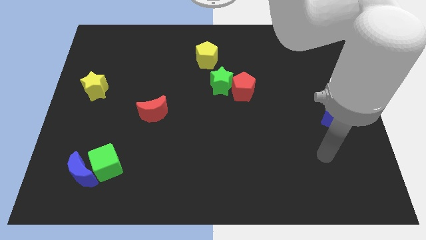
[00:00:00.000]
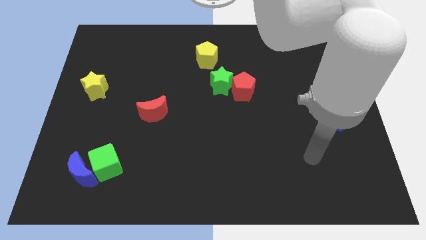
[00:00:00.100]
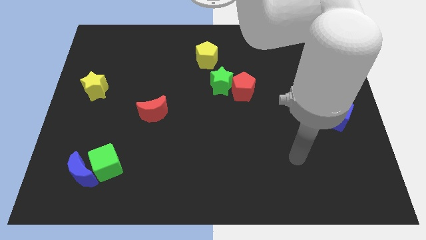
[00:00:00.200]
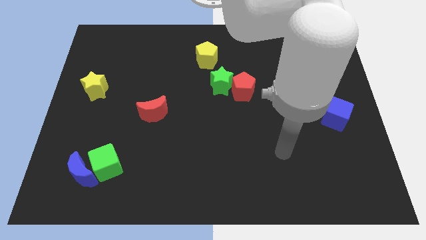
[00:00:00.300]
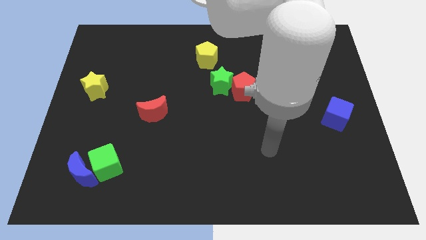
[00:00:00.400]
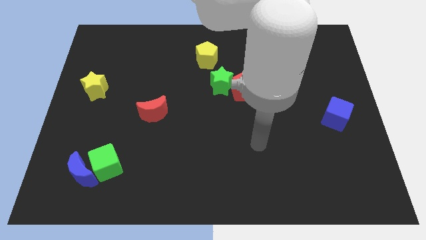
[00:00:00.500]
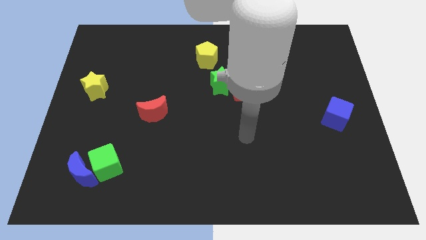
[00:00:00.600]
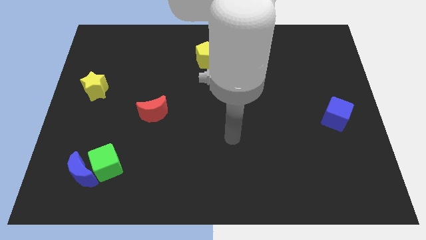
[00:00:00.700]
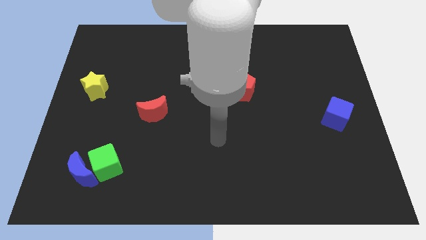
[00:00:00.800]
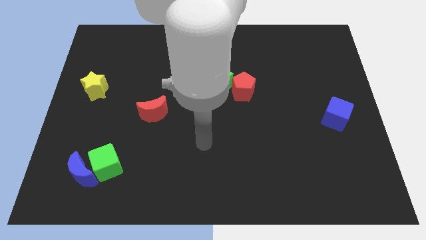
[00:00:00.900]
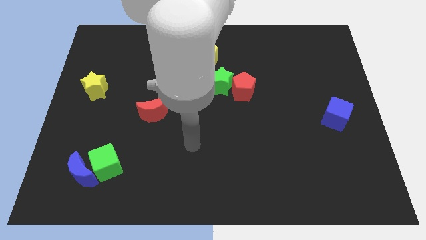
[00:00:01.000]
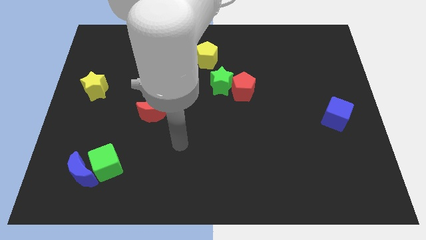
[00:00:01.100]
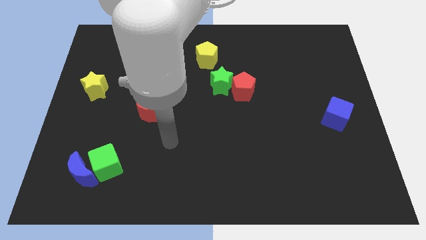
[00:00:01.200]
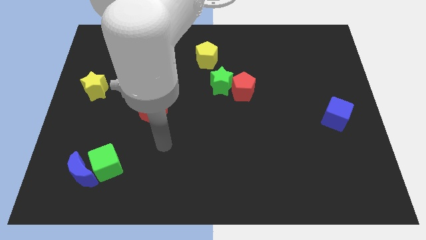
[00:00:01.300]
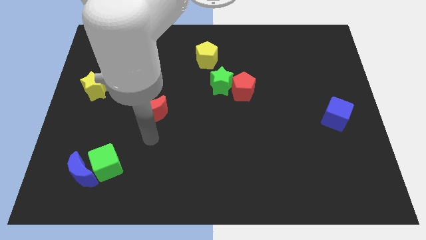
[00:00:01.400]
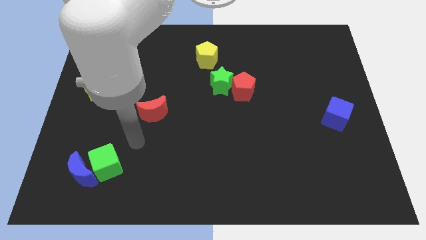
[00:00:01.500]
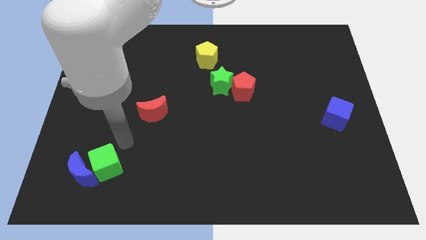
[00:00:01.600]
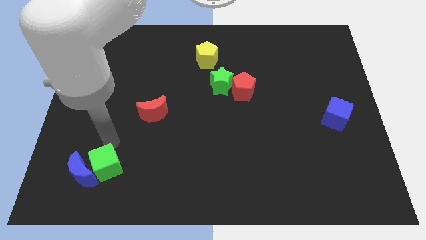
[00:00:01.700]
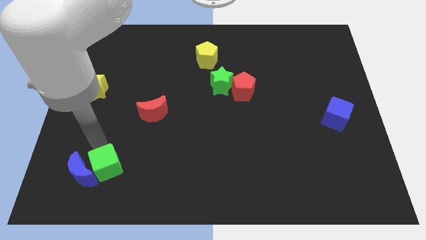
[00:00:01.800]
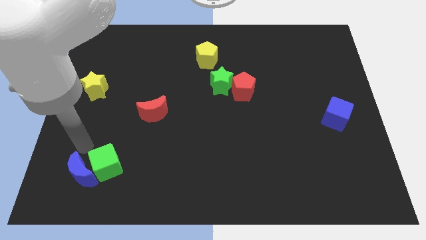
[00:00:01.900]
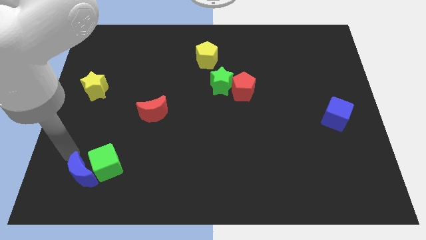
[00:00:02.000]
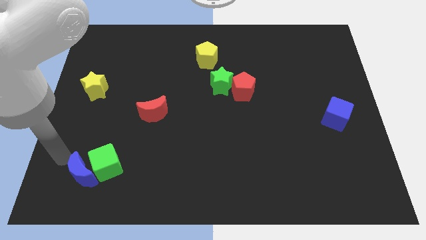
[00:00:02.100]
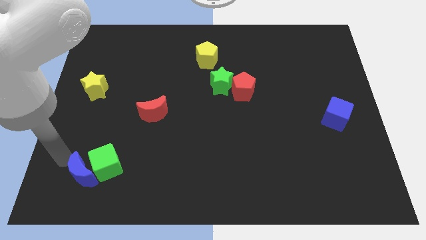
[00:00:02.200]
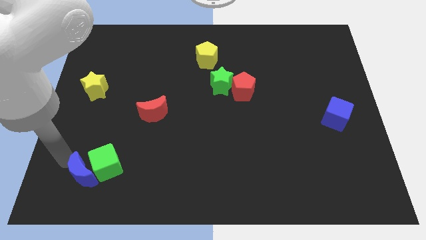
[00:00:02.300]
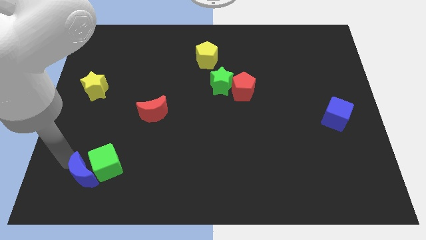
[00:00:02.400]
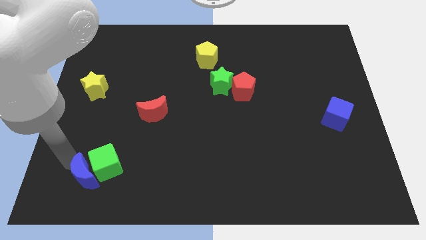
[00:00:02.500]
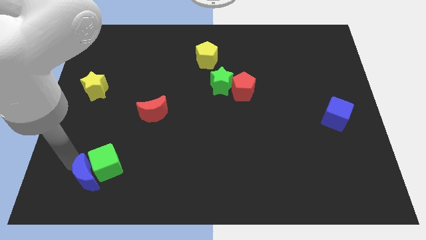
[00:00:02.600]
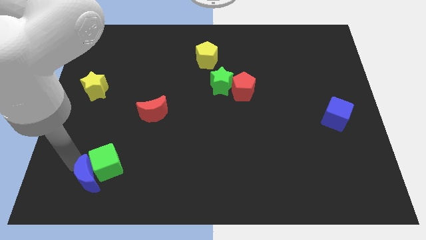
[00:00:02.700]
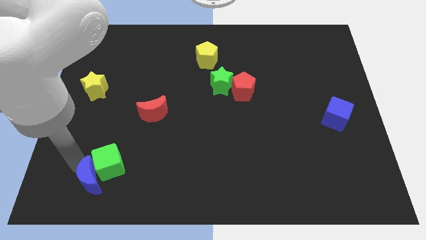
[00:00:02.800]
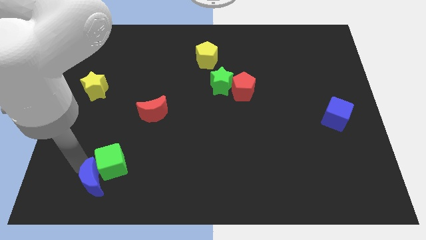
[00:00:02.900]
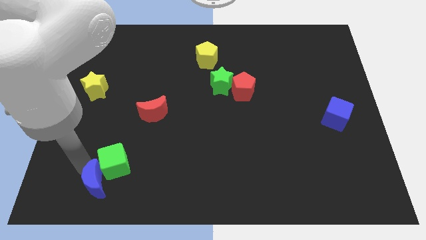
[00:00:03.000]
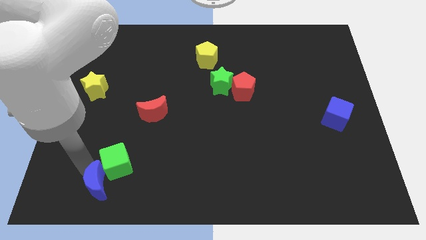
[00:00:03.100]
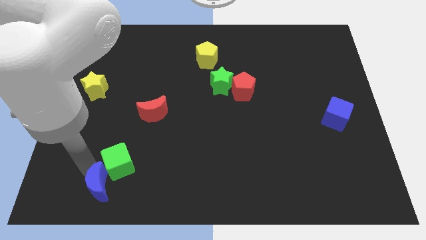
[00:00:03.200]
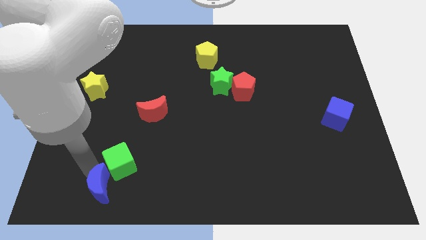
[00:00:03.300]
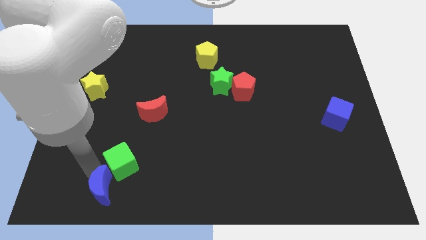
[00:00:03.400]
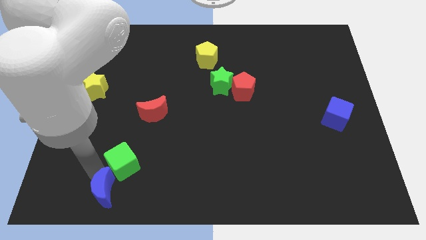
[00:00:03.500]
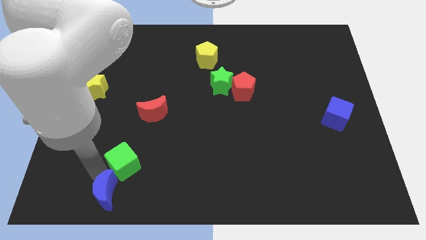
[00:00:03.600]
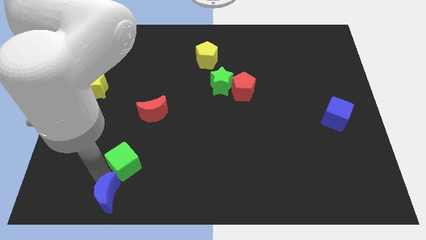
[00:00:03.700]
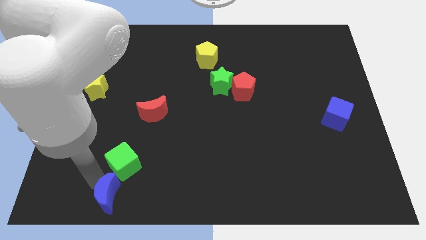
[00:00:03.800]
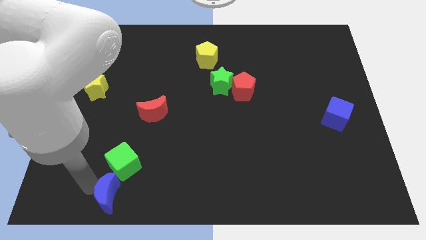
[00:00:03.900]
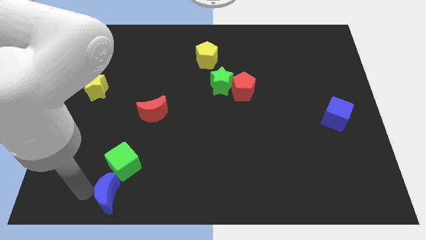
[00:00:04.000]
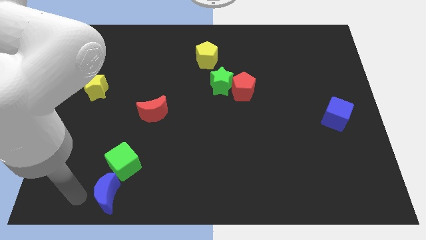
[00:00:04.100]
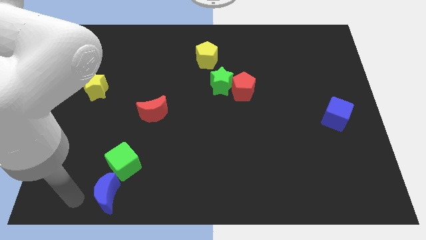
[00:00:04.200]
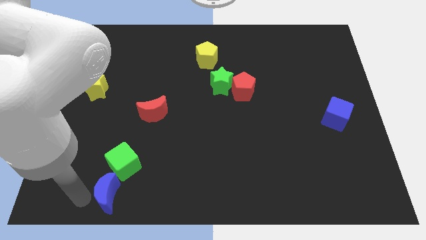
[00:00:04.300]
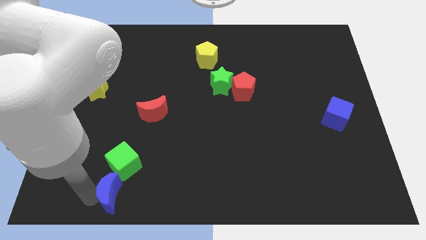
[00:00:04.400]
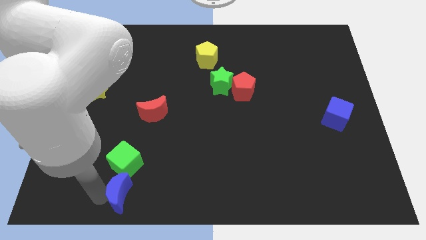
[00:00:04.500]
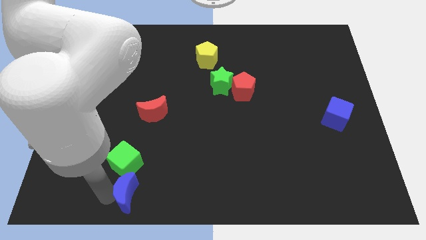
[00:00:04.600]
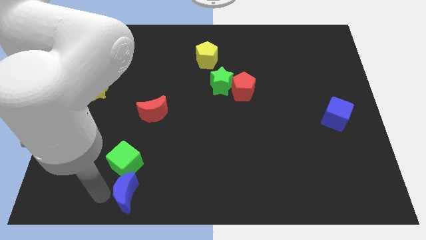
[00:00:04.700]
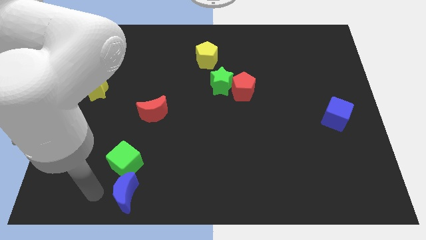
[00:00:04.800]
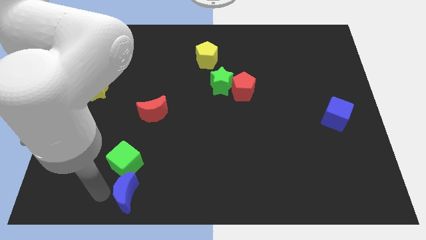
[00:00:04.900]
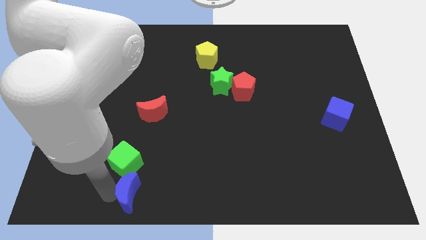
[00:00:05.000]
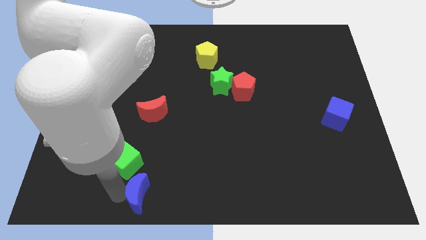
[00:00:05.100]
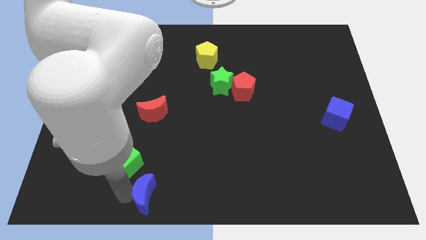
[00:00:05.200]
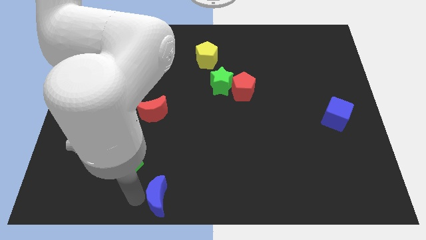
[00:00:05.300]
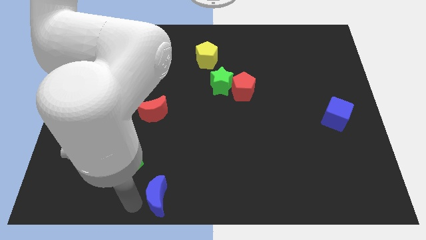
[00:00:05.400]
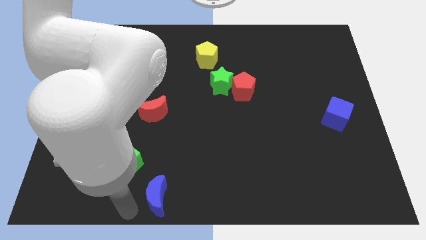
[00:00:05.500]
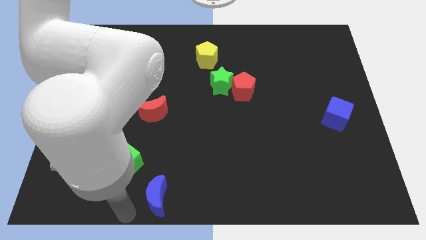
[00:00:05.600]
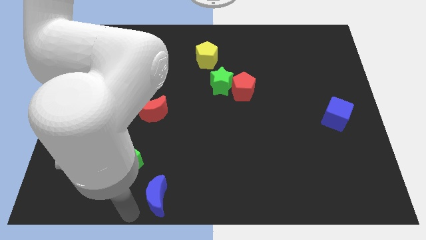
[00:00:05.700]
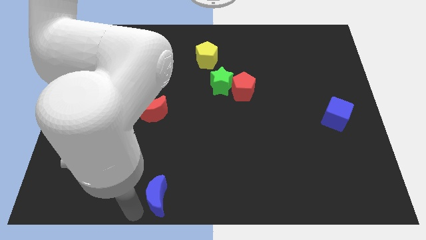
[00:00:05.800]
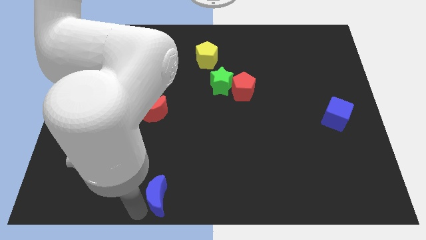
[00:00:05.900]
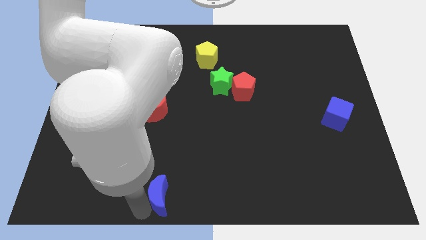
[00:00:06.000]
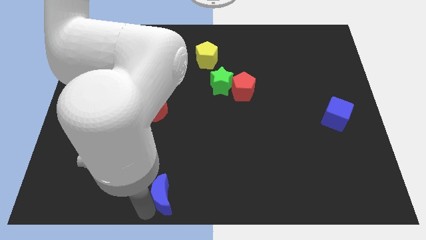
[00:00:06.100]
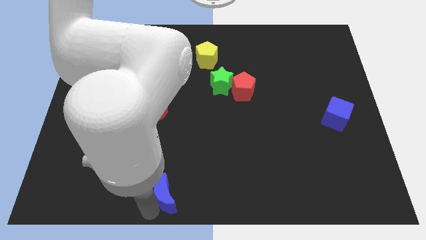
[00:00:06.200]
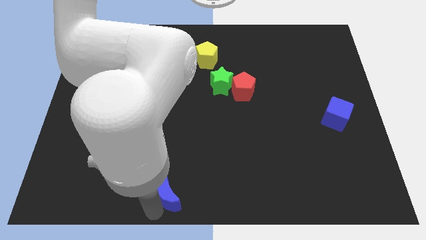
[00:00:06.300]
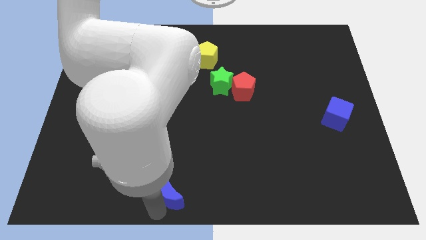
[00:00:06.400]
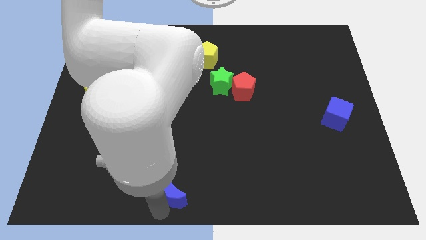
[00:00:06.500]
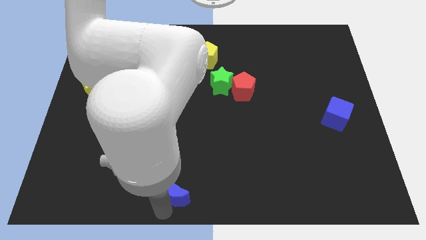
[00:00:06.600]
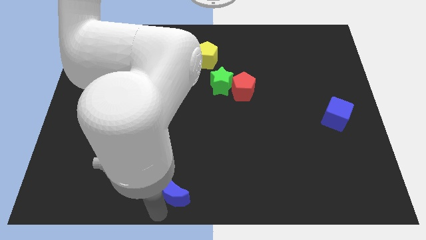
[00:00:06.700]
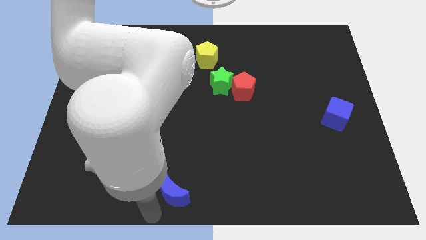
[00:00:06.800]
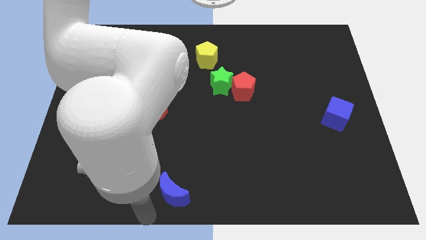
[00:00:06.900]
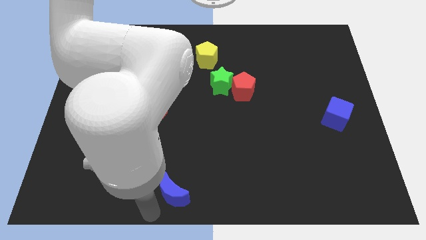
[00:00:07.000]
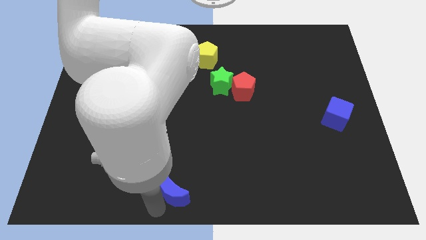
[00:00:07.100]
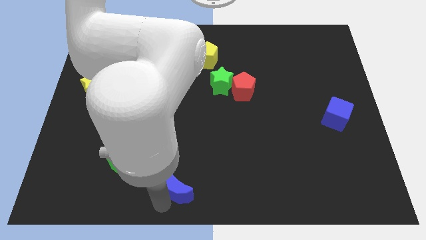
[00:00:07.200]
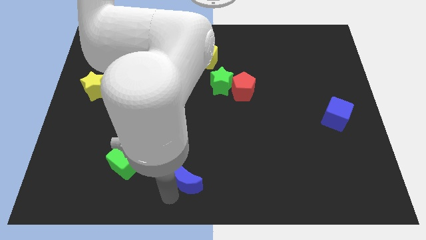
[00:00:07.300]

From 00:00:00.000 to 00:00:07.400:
slide the blue moon right

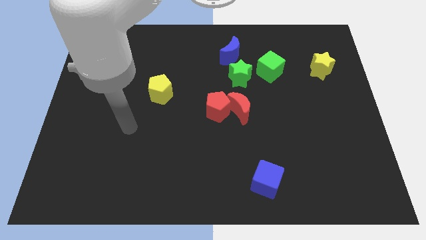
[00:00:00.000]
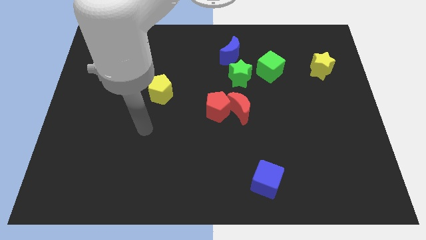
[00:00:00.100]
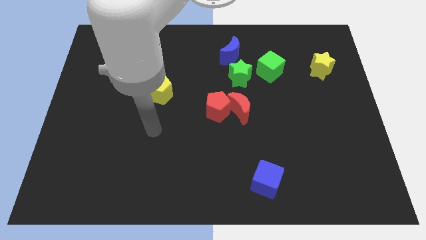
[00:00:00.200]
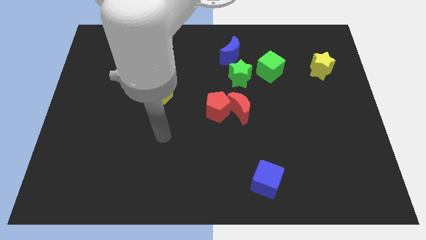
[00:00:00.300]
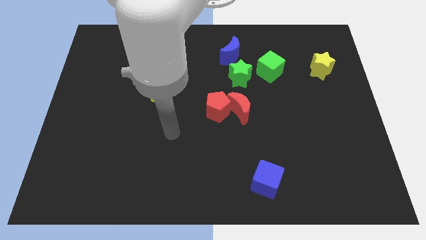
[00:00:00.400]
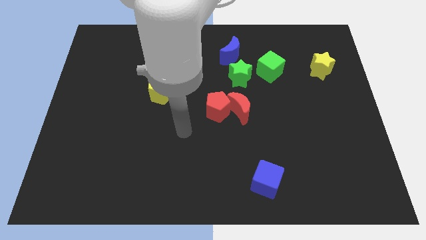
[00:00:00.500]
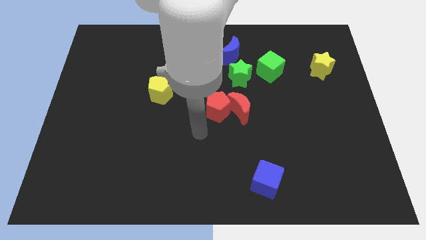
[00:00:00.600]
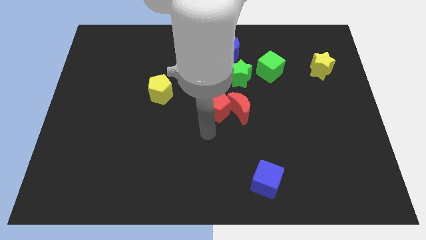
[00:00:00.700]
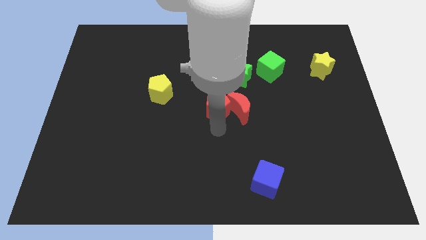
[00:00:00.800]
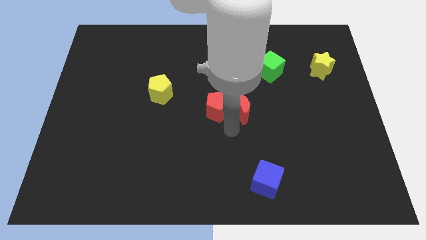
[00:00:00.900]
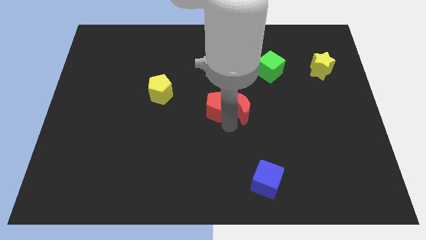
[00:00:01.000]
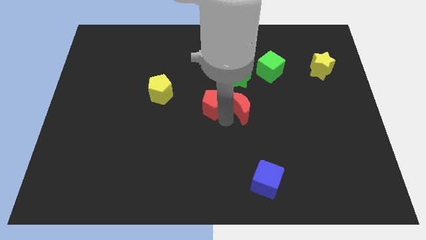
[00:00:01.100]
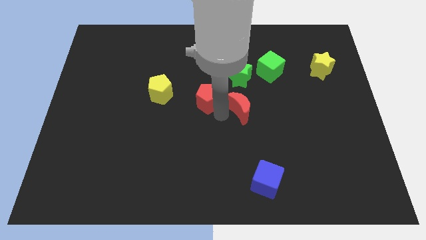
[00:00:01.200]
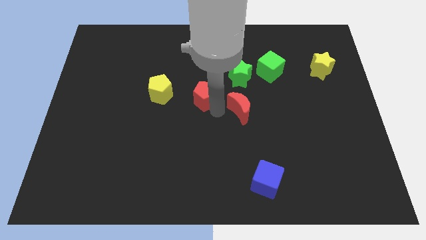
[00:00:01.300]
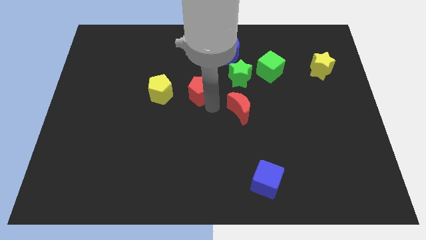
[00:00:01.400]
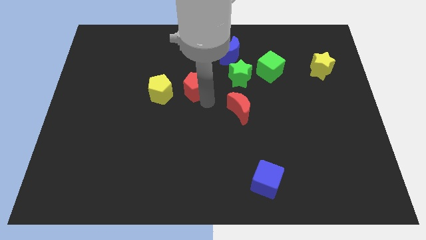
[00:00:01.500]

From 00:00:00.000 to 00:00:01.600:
move the red pentagon a little bit up and left diagonally
